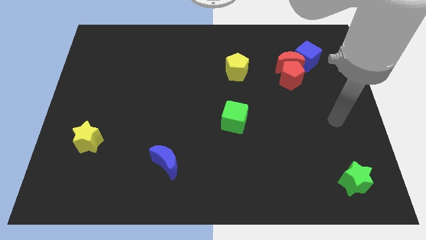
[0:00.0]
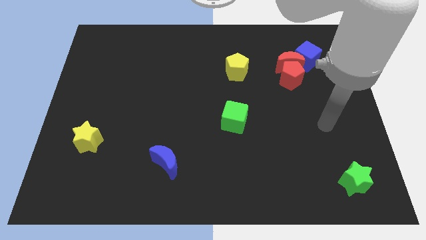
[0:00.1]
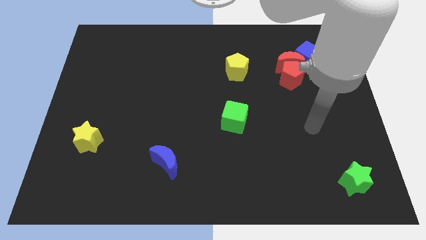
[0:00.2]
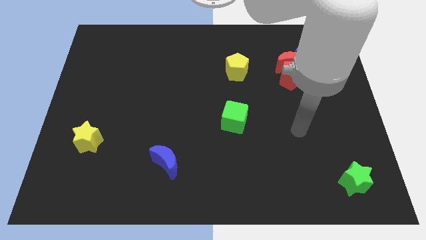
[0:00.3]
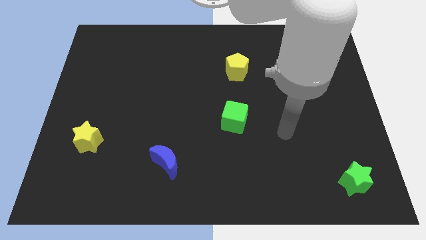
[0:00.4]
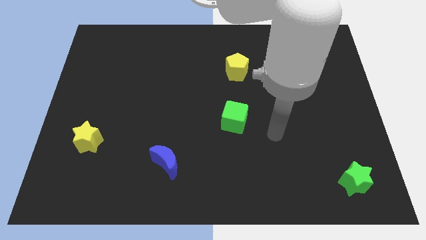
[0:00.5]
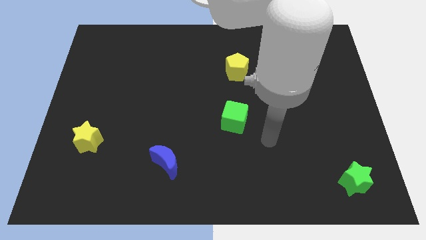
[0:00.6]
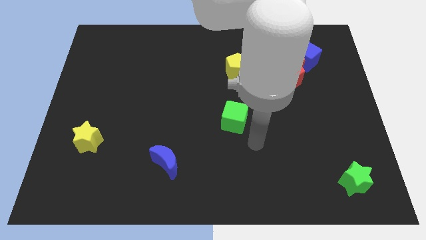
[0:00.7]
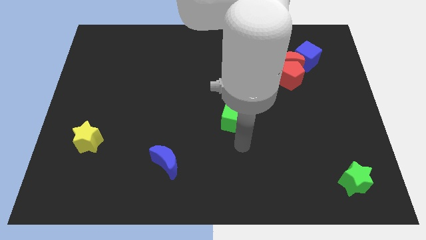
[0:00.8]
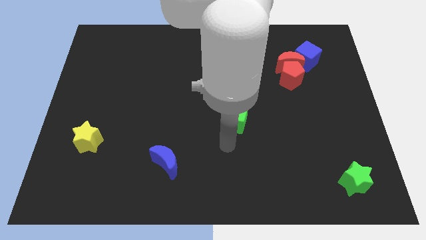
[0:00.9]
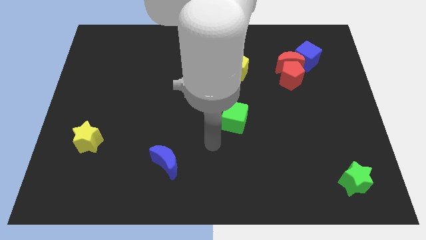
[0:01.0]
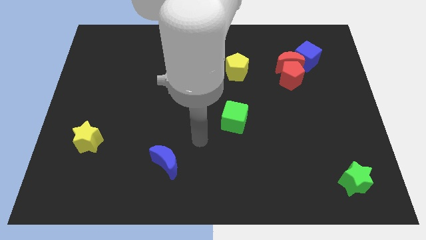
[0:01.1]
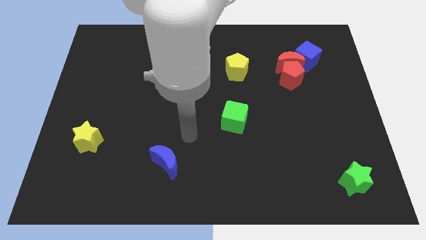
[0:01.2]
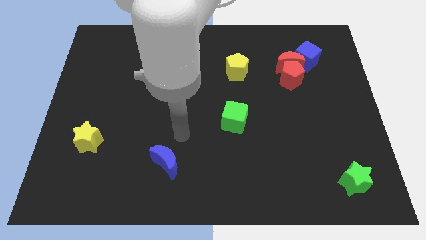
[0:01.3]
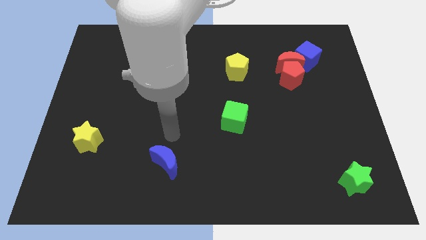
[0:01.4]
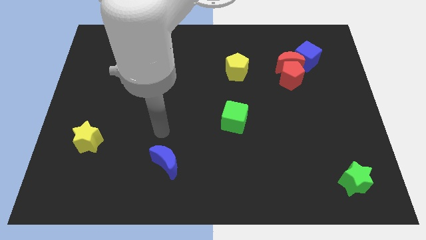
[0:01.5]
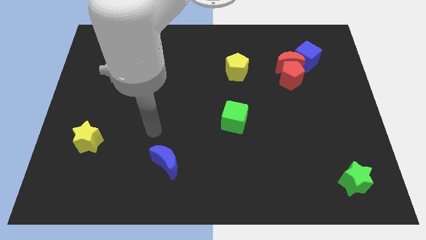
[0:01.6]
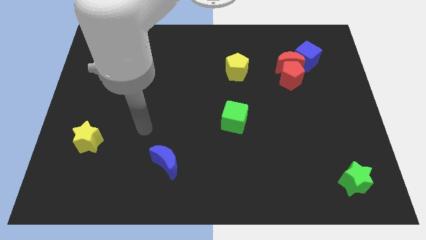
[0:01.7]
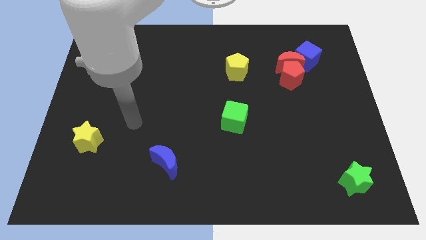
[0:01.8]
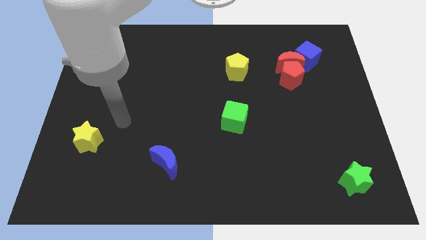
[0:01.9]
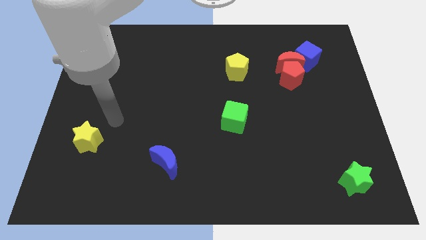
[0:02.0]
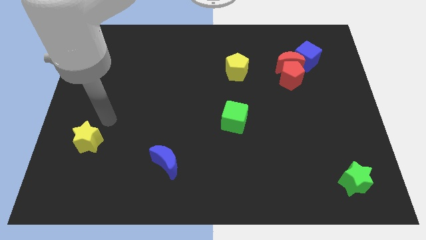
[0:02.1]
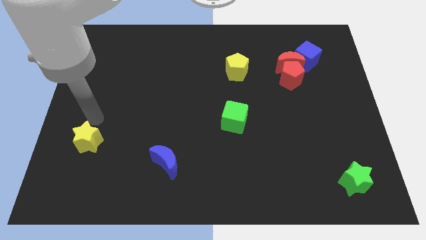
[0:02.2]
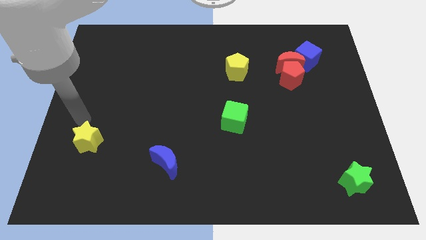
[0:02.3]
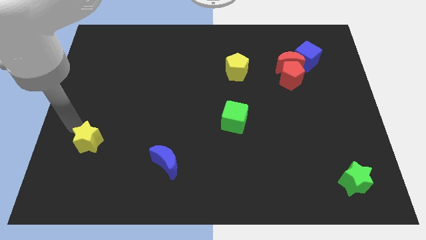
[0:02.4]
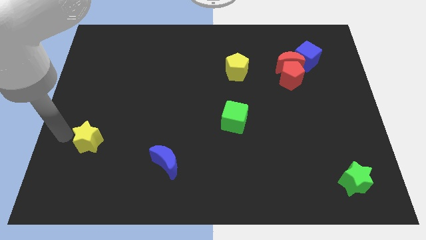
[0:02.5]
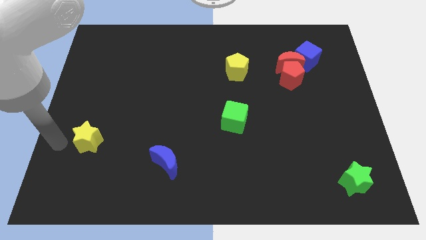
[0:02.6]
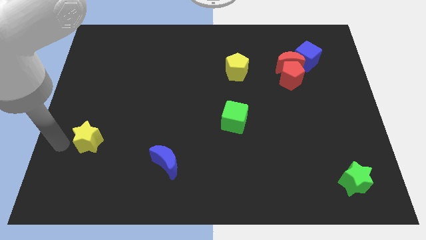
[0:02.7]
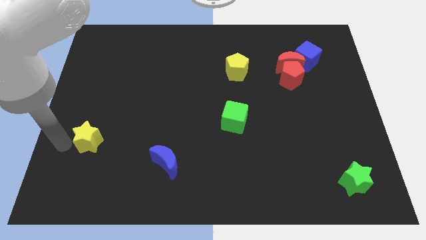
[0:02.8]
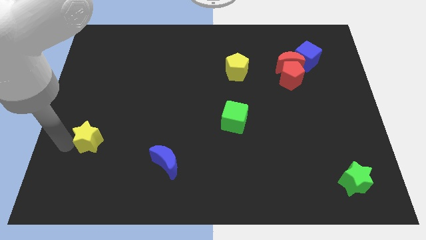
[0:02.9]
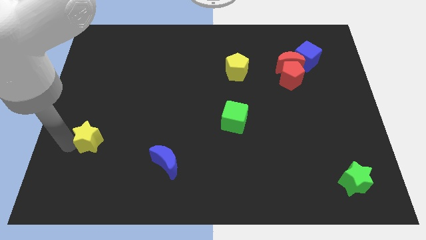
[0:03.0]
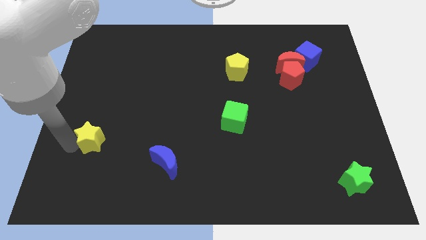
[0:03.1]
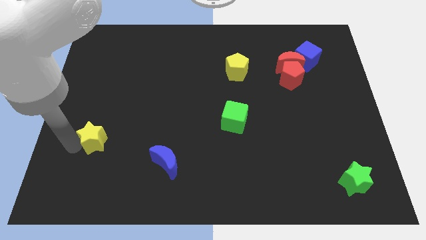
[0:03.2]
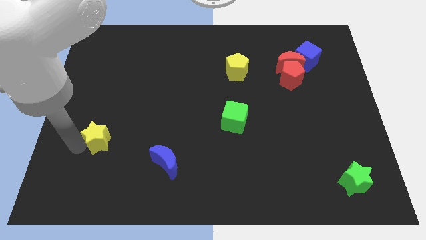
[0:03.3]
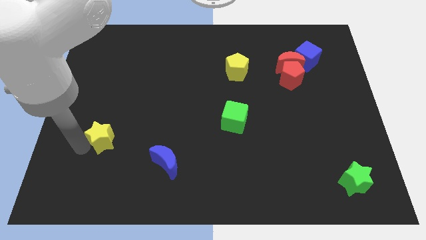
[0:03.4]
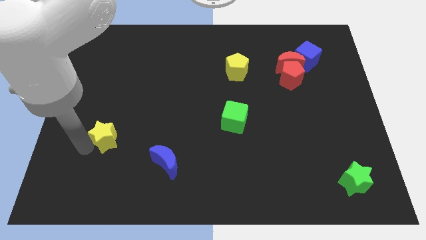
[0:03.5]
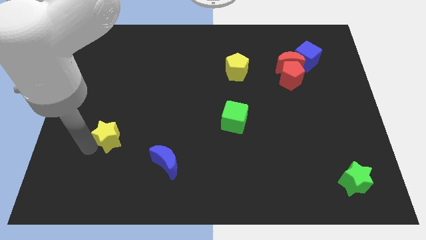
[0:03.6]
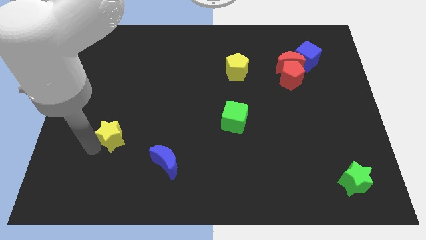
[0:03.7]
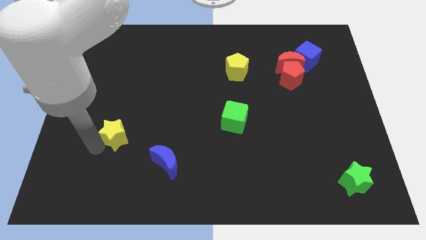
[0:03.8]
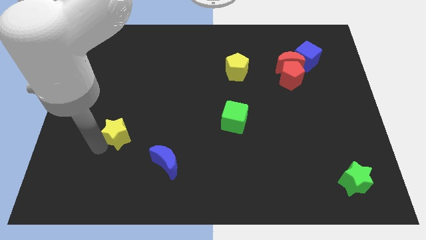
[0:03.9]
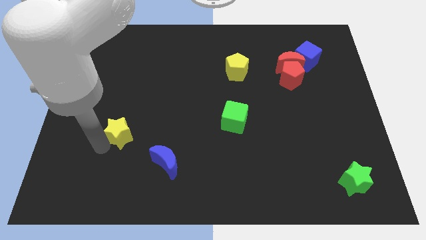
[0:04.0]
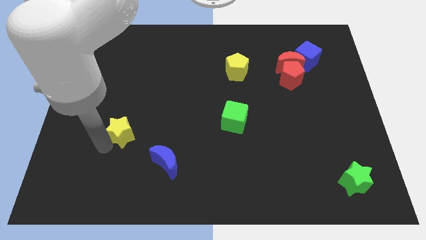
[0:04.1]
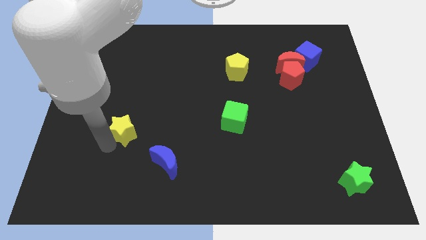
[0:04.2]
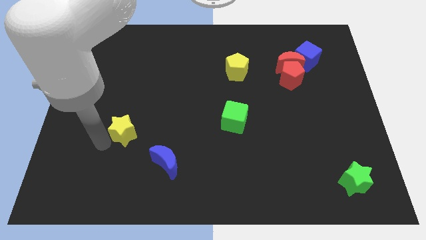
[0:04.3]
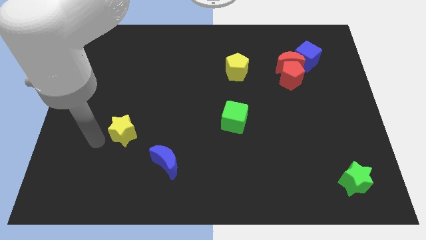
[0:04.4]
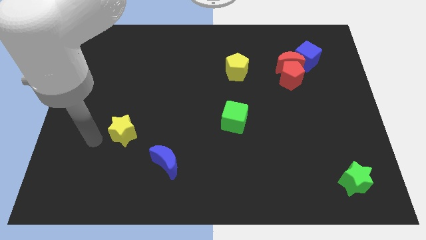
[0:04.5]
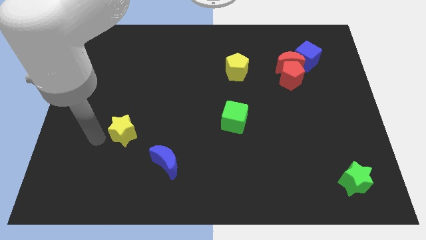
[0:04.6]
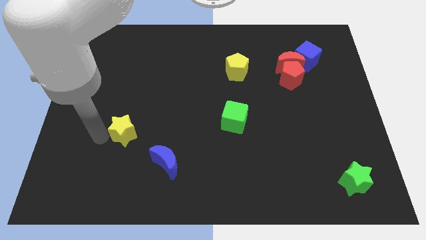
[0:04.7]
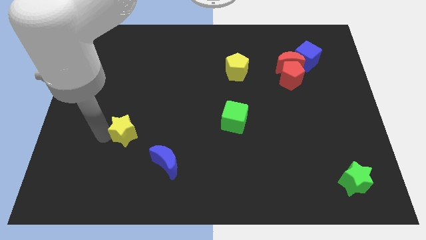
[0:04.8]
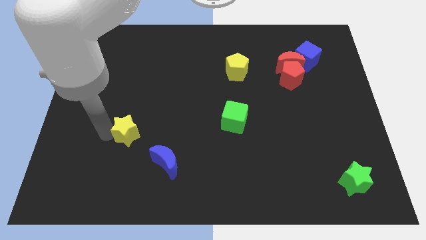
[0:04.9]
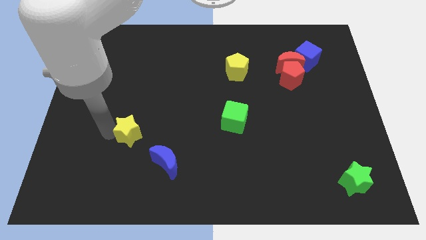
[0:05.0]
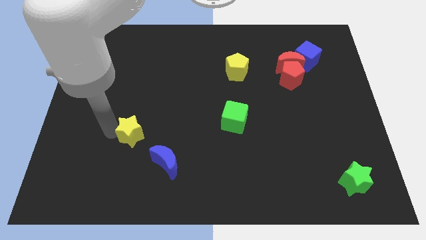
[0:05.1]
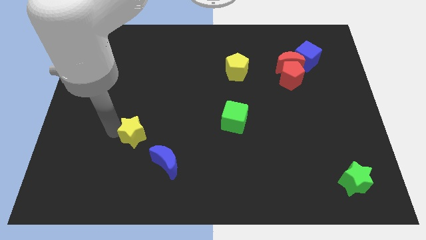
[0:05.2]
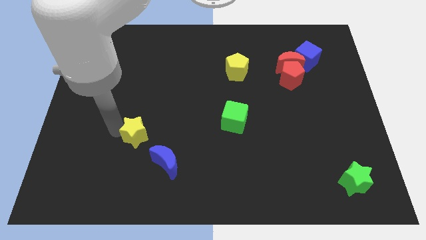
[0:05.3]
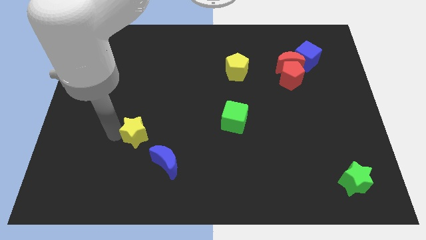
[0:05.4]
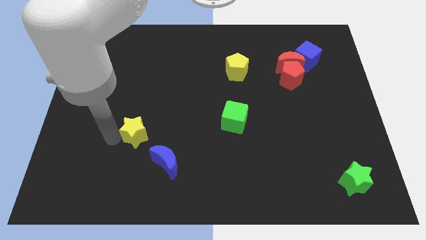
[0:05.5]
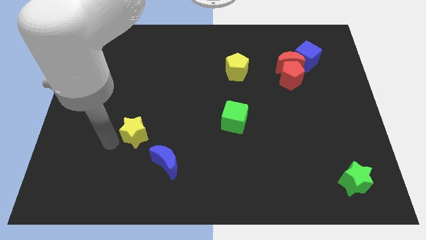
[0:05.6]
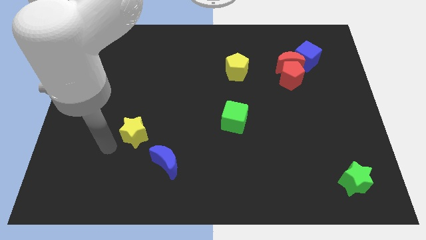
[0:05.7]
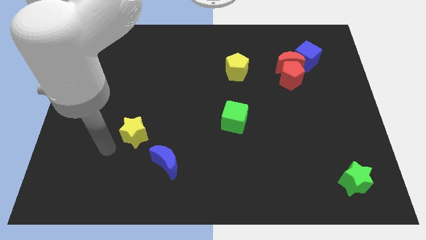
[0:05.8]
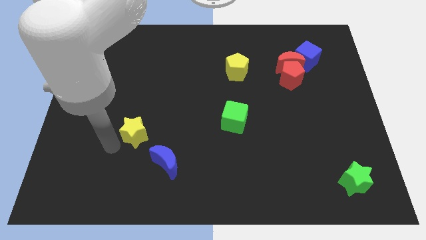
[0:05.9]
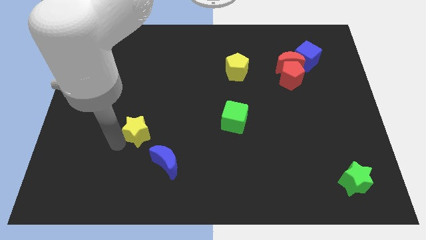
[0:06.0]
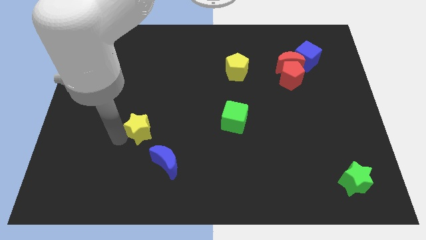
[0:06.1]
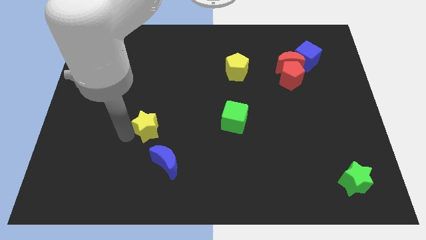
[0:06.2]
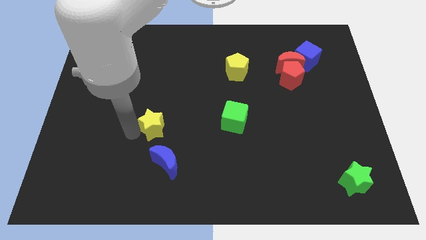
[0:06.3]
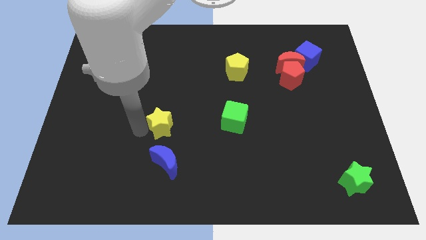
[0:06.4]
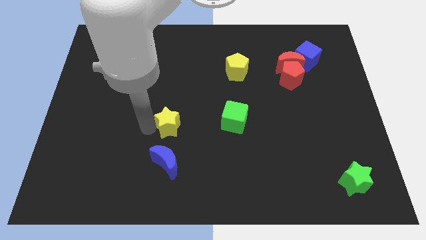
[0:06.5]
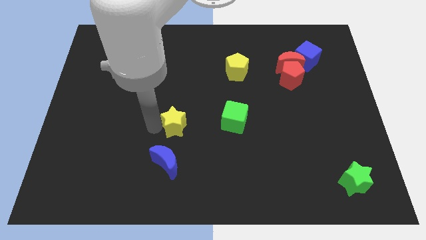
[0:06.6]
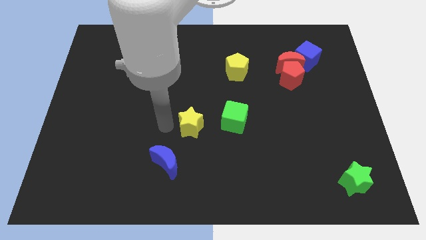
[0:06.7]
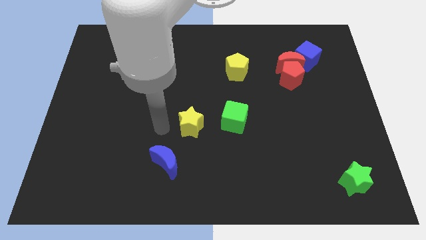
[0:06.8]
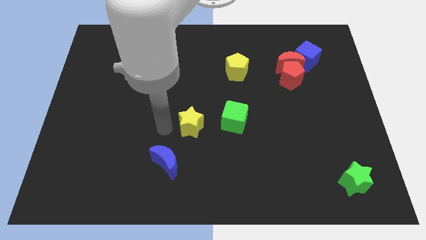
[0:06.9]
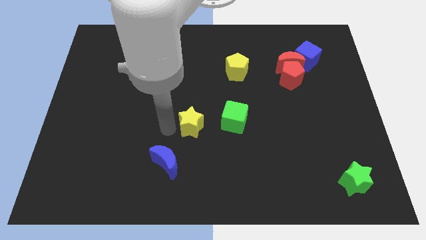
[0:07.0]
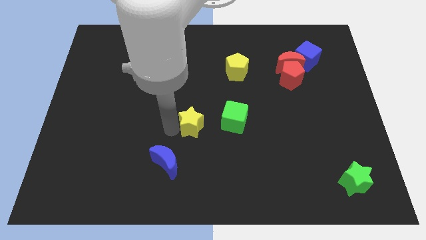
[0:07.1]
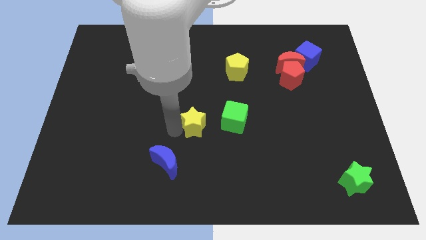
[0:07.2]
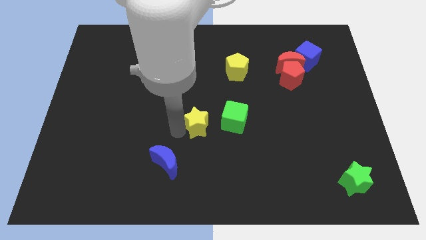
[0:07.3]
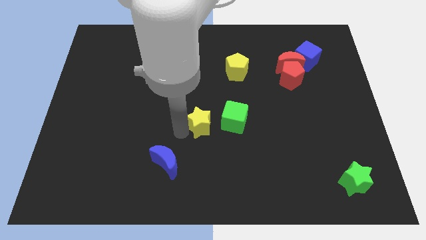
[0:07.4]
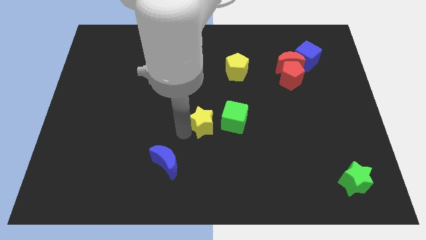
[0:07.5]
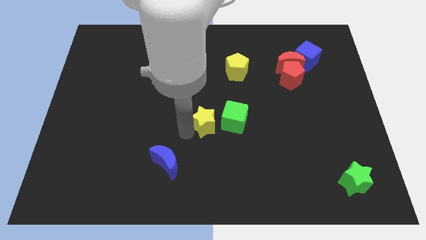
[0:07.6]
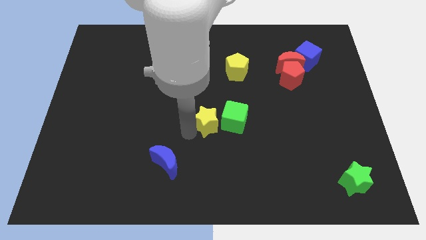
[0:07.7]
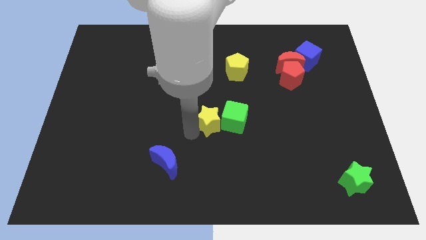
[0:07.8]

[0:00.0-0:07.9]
slide the yellow star next to the green cube

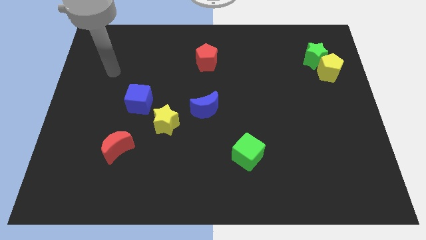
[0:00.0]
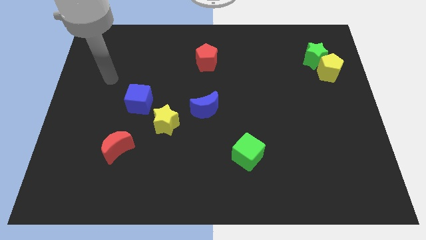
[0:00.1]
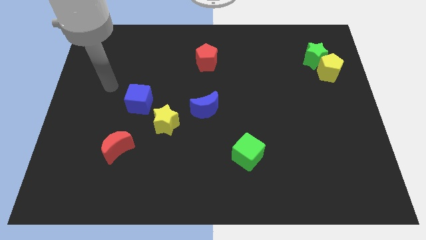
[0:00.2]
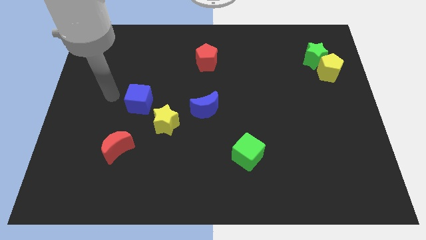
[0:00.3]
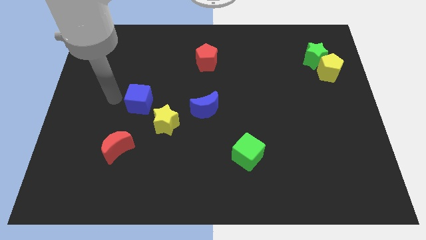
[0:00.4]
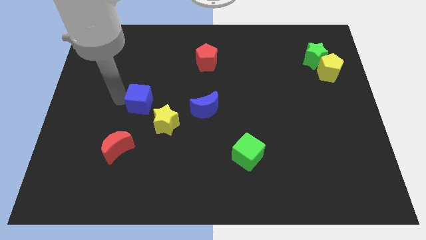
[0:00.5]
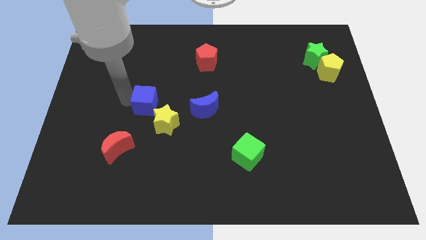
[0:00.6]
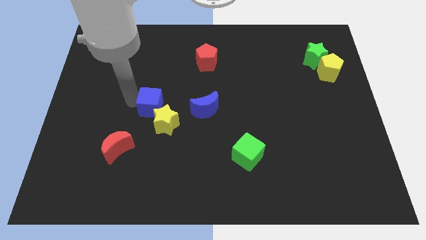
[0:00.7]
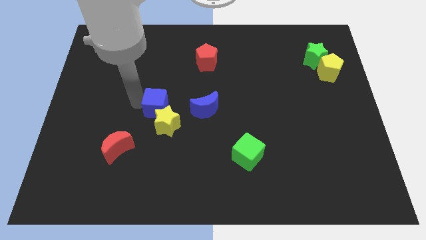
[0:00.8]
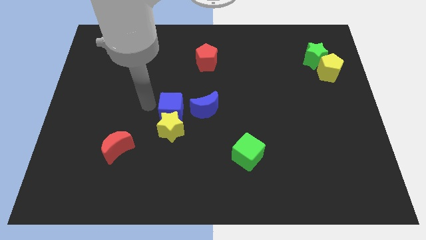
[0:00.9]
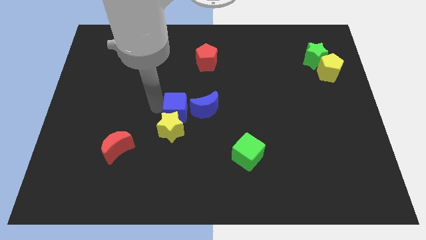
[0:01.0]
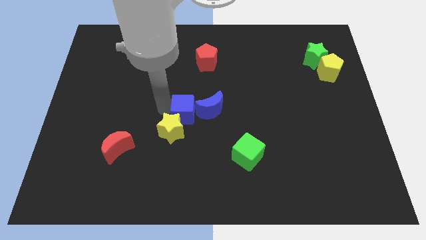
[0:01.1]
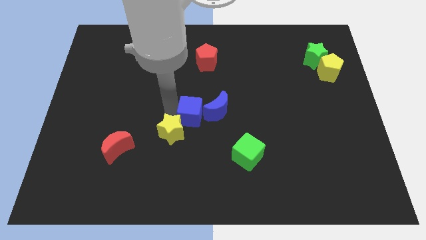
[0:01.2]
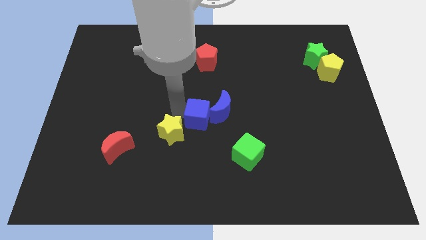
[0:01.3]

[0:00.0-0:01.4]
push the blue cube next to the blue moon
